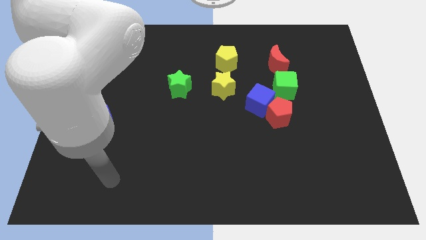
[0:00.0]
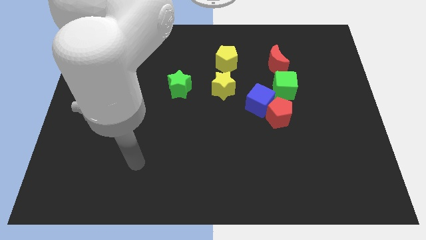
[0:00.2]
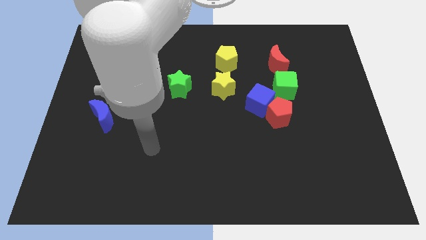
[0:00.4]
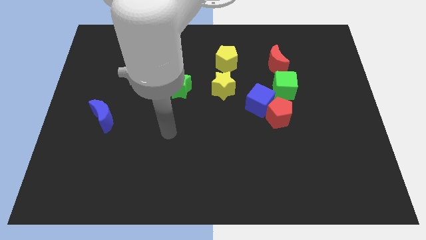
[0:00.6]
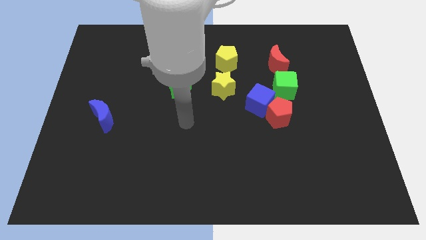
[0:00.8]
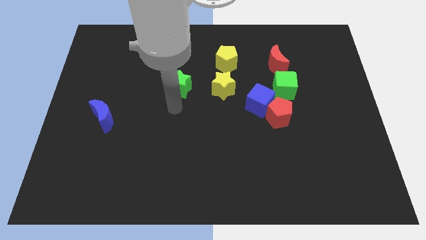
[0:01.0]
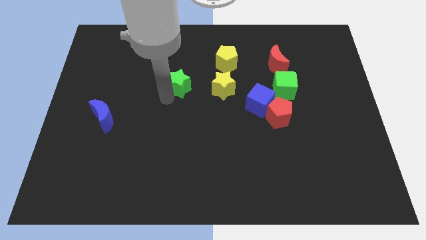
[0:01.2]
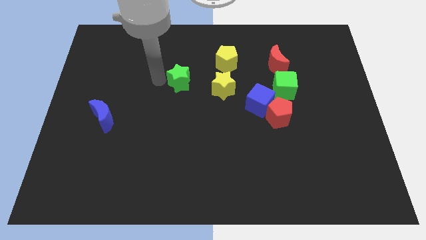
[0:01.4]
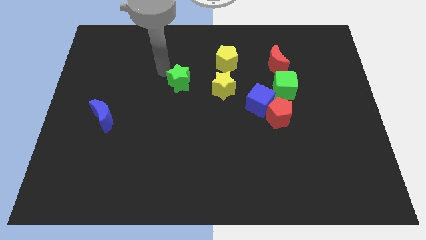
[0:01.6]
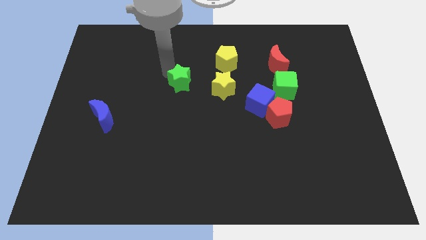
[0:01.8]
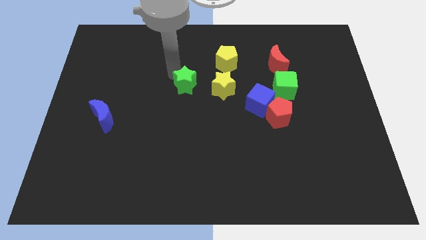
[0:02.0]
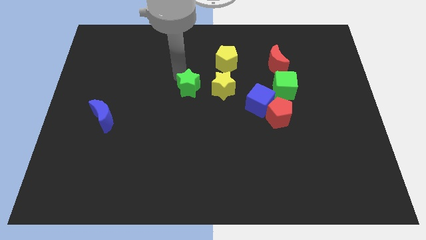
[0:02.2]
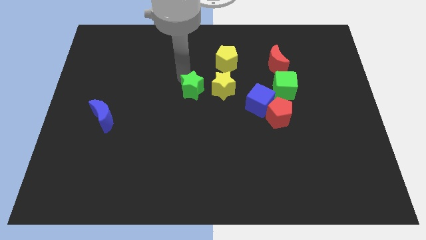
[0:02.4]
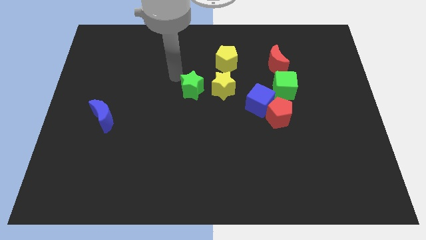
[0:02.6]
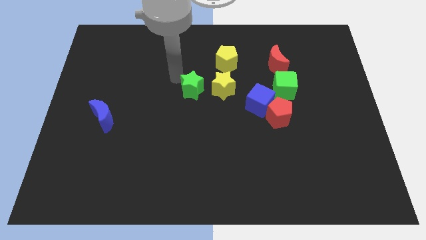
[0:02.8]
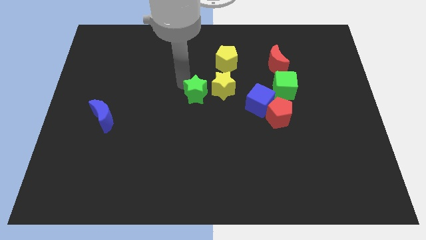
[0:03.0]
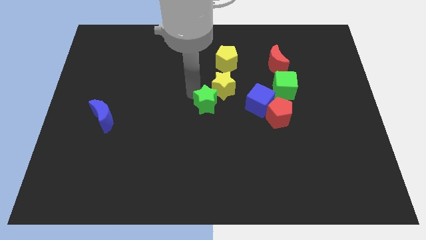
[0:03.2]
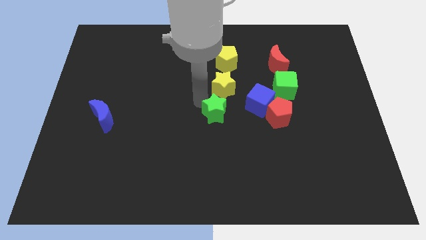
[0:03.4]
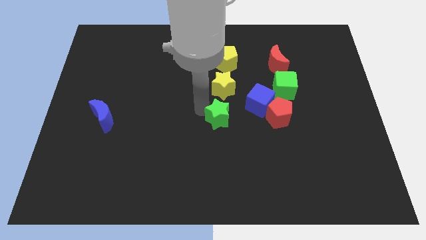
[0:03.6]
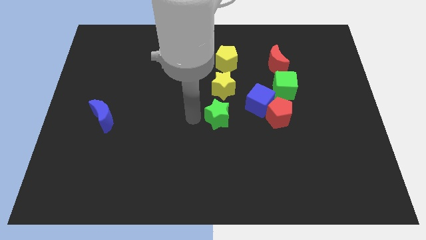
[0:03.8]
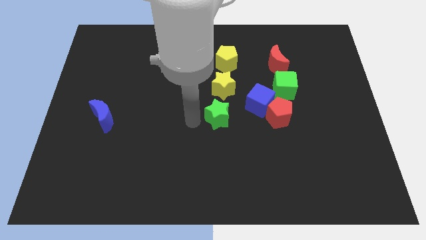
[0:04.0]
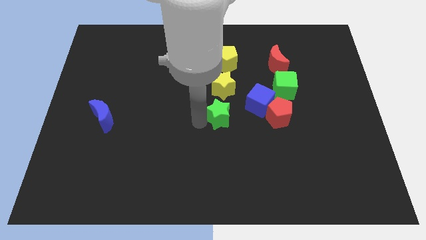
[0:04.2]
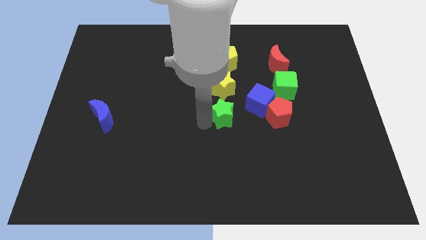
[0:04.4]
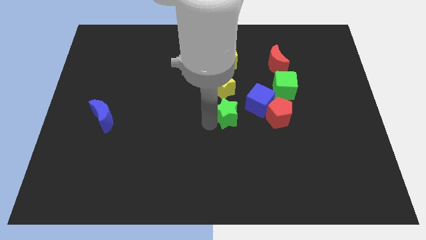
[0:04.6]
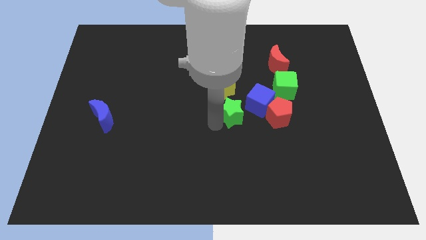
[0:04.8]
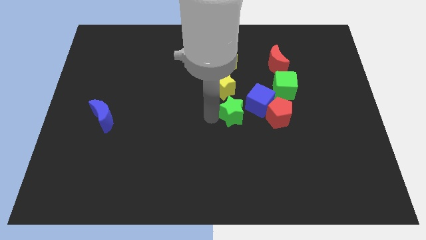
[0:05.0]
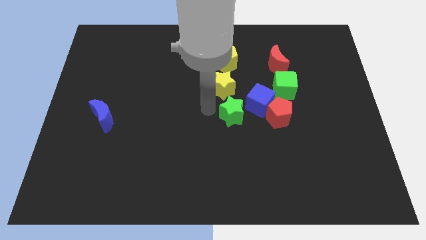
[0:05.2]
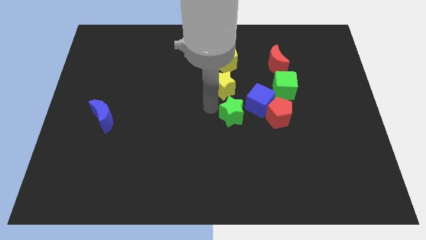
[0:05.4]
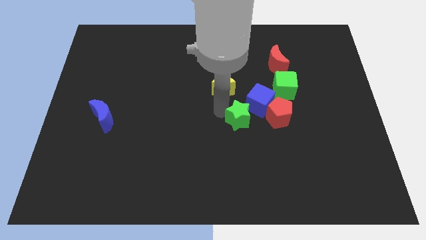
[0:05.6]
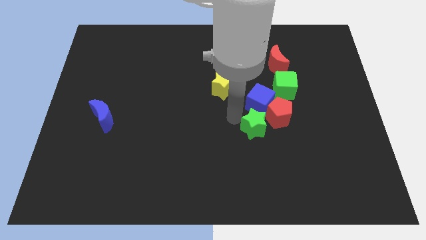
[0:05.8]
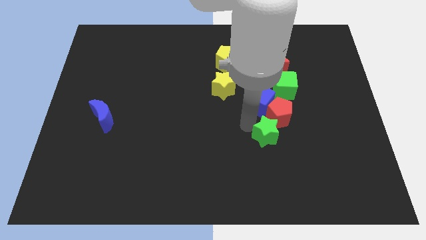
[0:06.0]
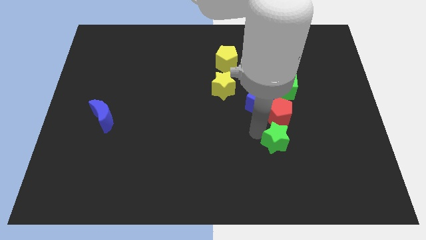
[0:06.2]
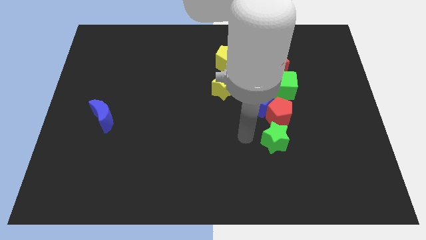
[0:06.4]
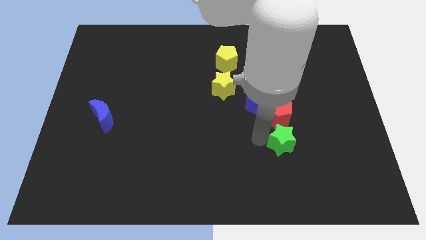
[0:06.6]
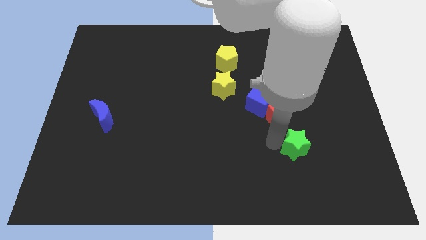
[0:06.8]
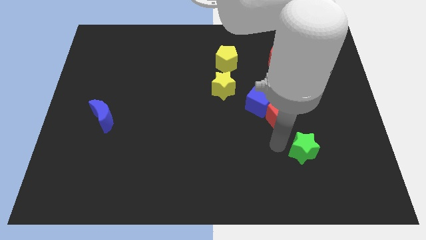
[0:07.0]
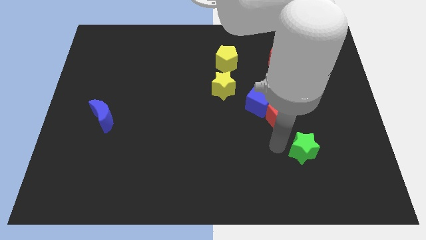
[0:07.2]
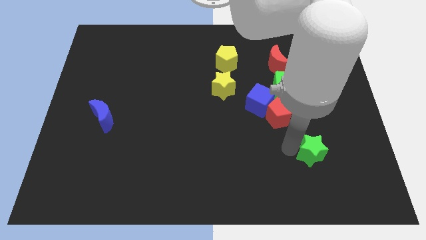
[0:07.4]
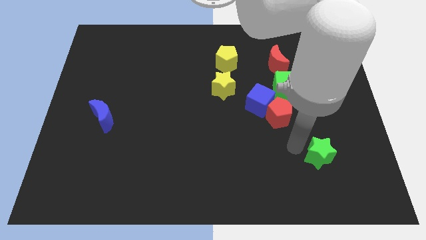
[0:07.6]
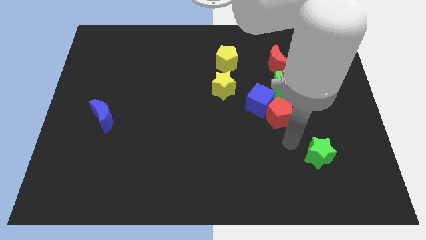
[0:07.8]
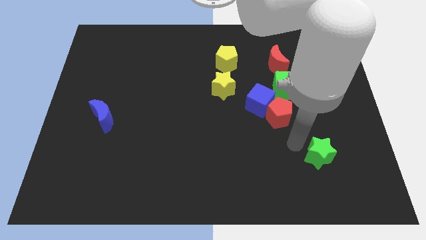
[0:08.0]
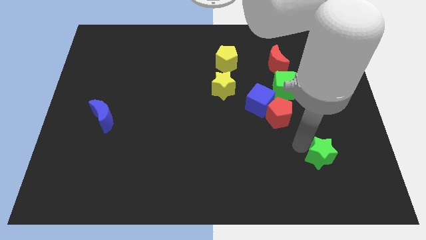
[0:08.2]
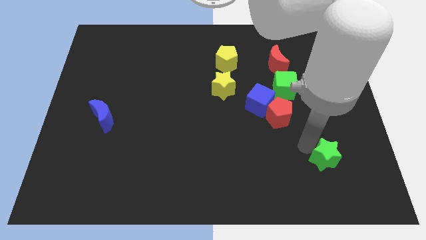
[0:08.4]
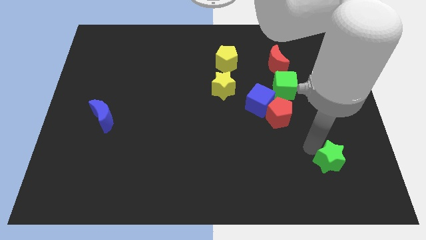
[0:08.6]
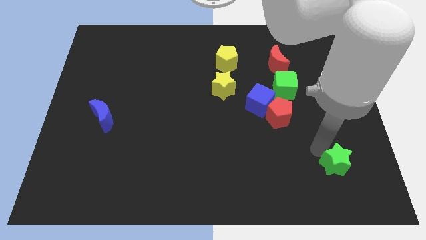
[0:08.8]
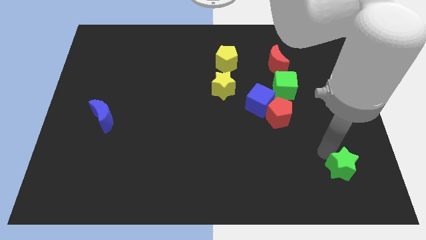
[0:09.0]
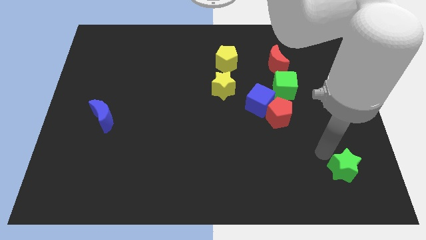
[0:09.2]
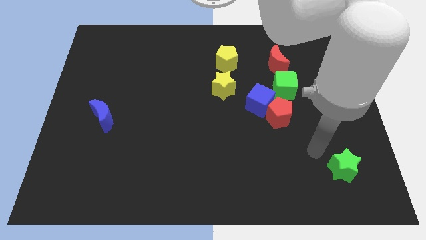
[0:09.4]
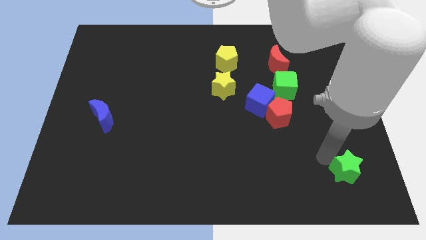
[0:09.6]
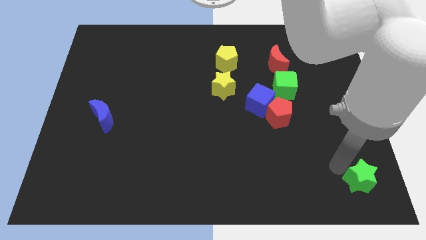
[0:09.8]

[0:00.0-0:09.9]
push the green star to the bottom right

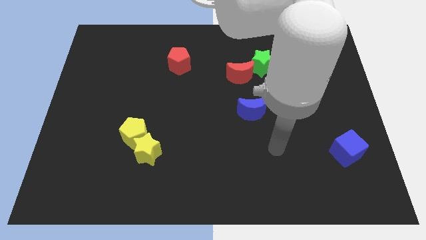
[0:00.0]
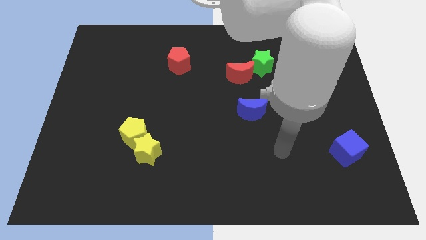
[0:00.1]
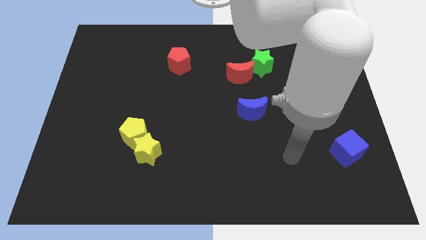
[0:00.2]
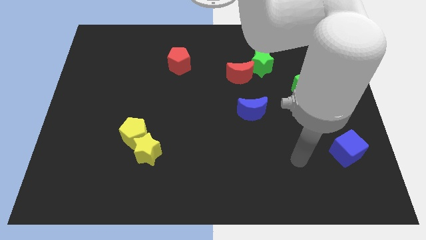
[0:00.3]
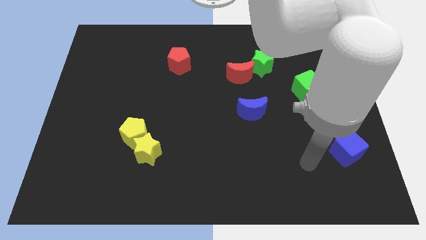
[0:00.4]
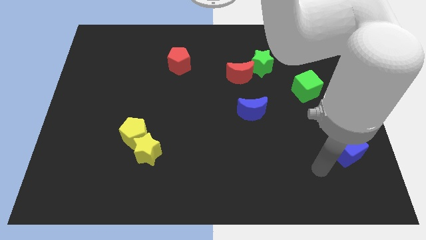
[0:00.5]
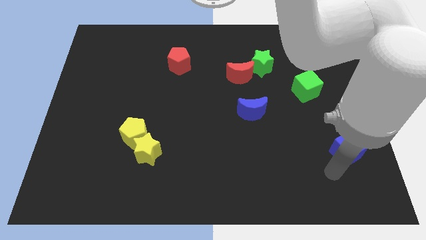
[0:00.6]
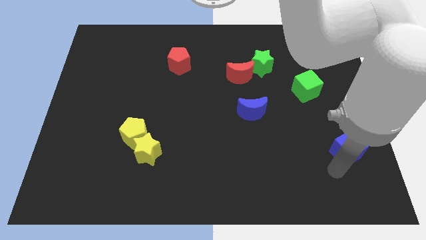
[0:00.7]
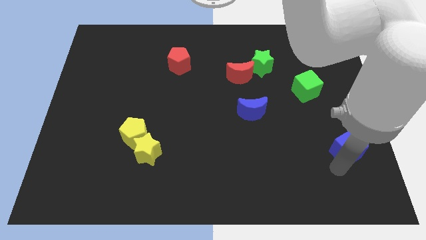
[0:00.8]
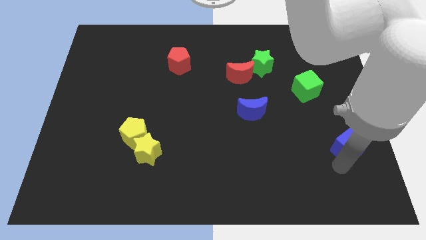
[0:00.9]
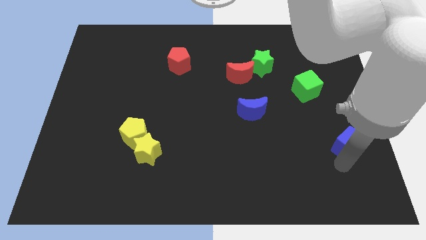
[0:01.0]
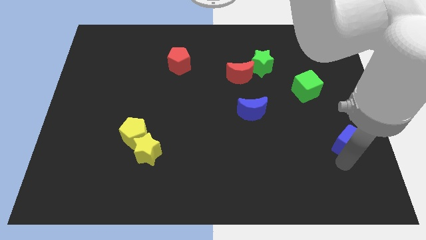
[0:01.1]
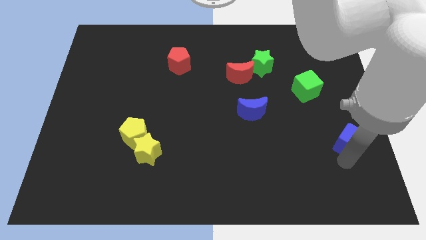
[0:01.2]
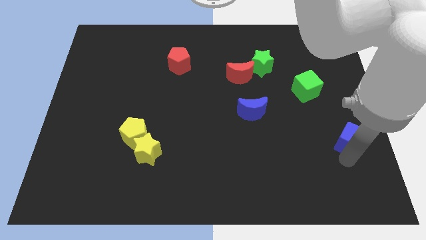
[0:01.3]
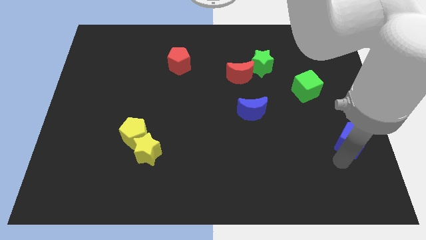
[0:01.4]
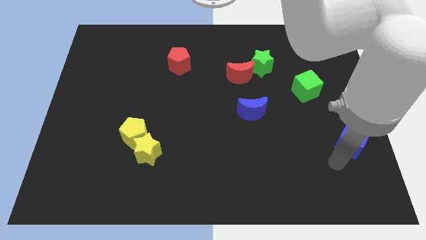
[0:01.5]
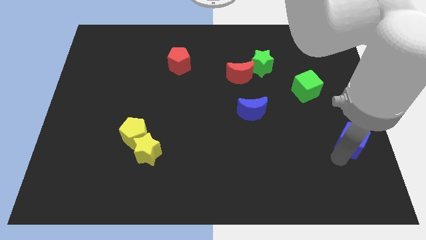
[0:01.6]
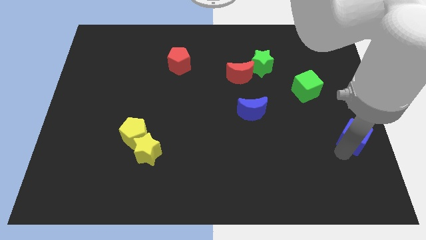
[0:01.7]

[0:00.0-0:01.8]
push the blue cube to the center right
